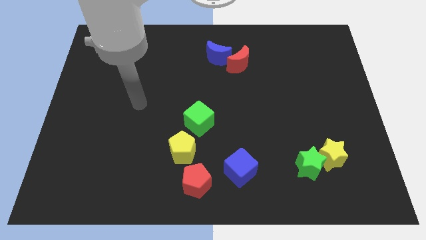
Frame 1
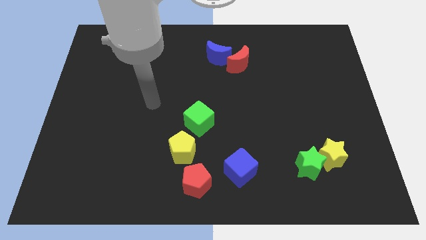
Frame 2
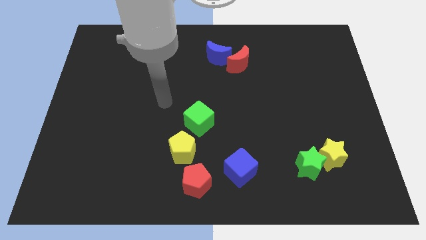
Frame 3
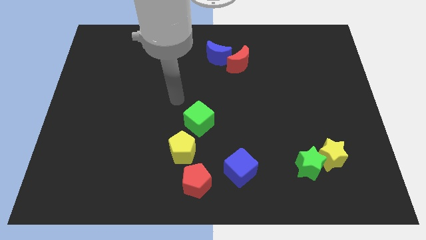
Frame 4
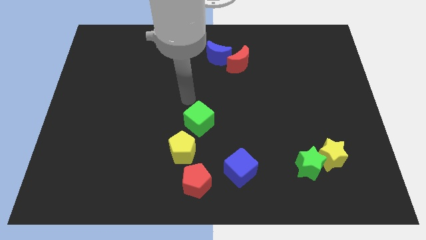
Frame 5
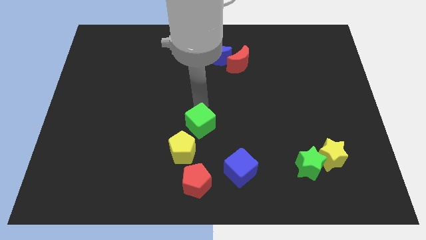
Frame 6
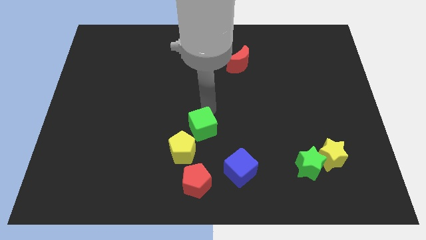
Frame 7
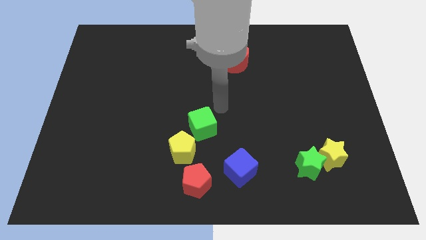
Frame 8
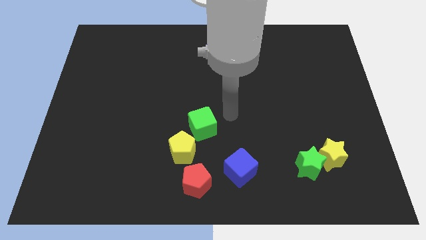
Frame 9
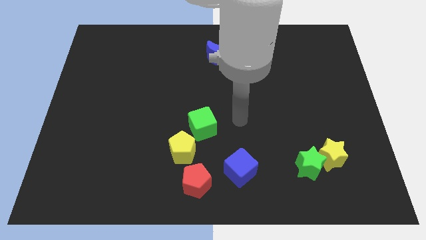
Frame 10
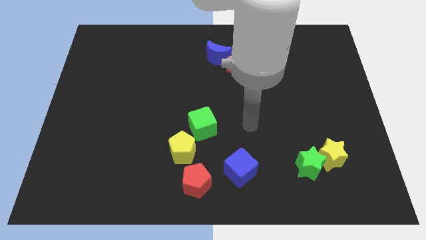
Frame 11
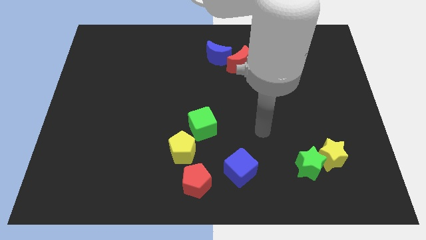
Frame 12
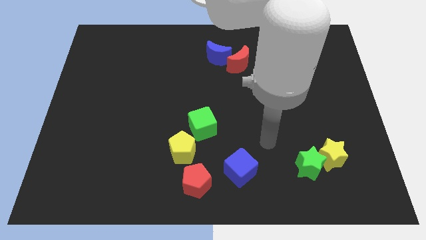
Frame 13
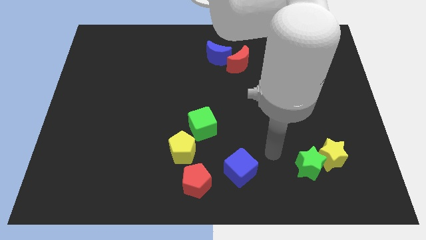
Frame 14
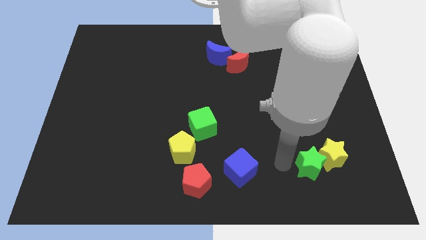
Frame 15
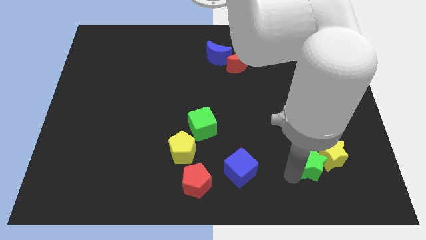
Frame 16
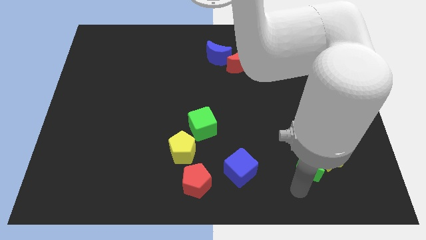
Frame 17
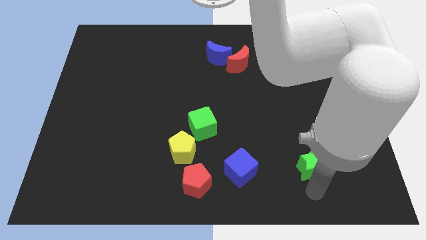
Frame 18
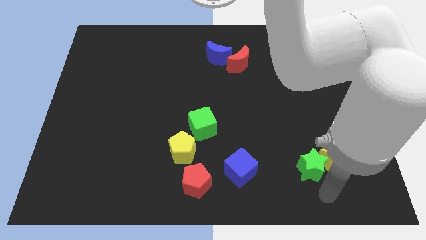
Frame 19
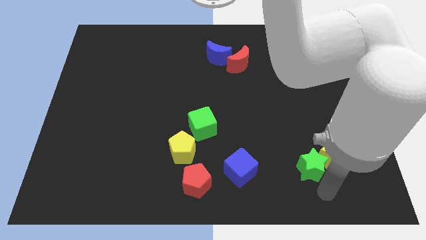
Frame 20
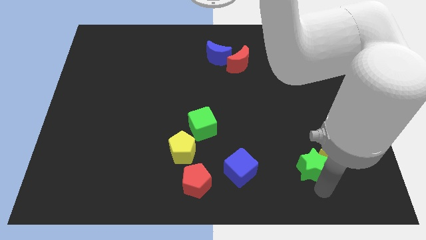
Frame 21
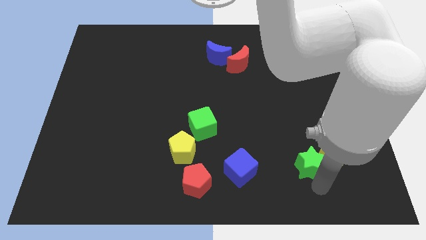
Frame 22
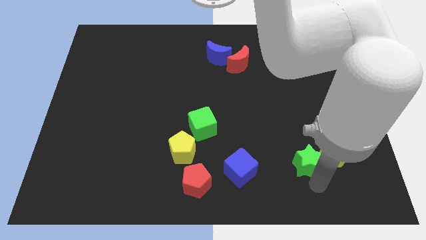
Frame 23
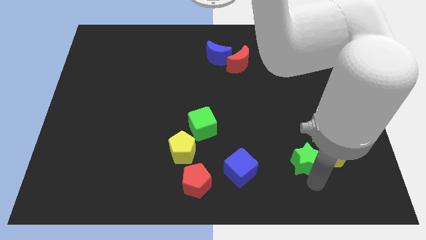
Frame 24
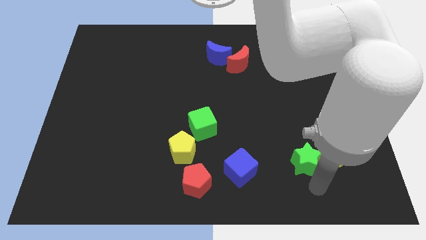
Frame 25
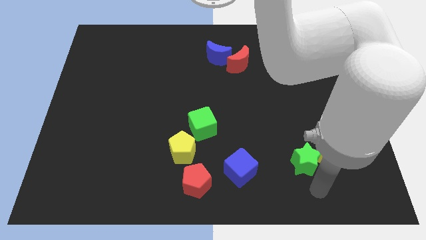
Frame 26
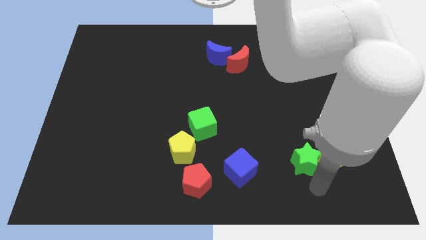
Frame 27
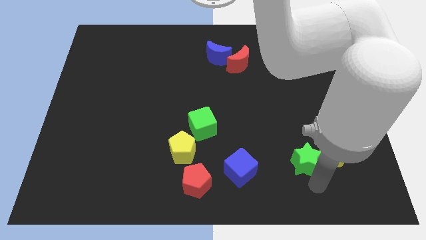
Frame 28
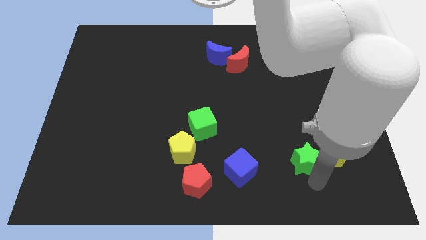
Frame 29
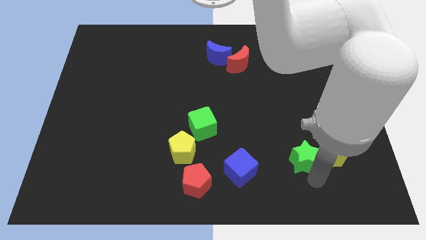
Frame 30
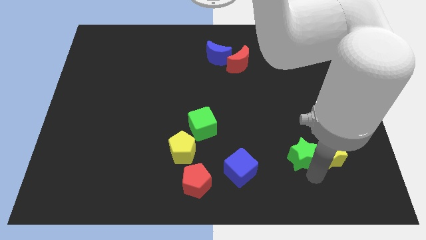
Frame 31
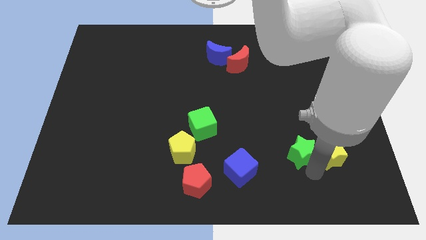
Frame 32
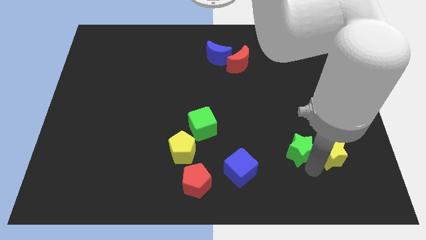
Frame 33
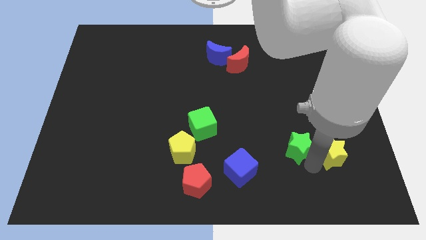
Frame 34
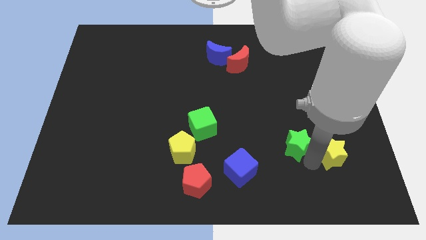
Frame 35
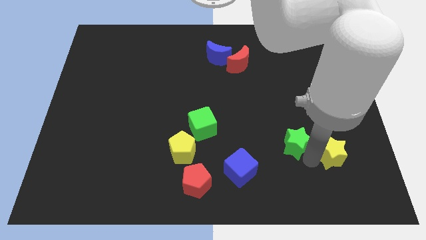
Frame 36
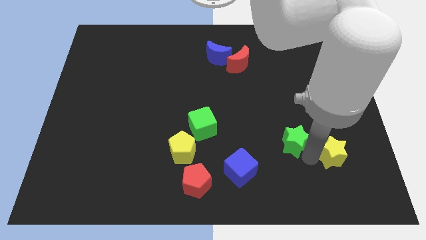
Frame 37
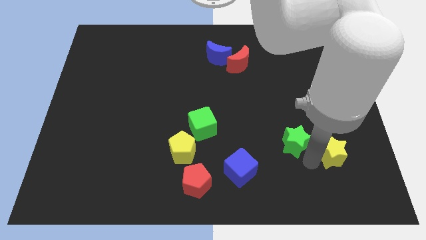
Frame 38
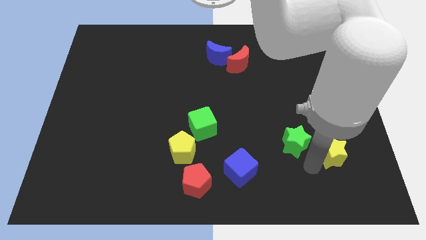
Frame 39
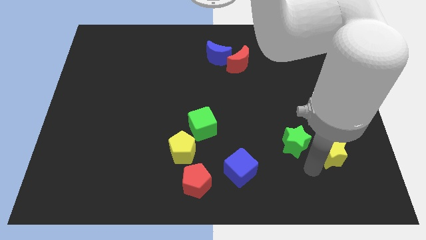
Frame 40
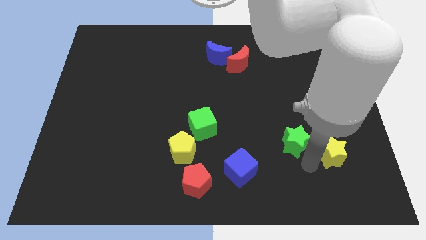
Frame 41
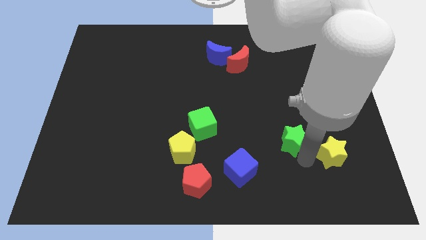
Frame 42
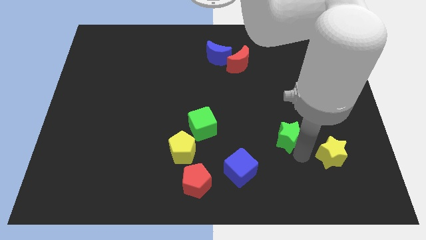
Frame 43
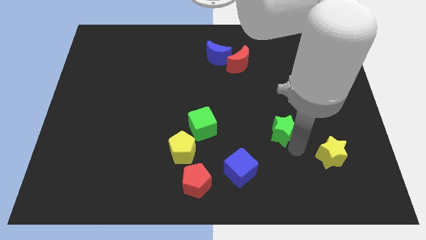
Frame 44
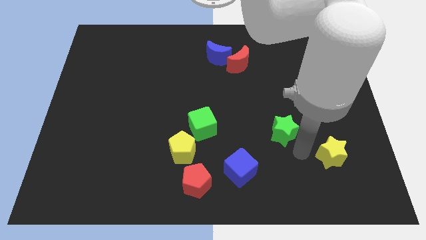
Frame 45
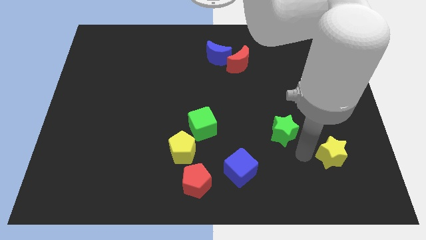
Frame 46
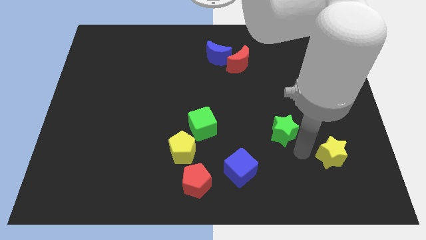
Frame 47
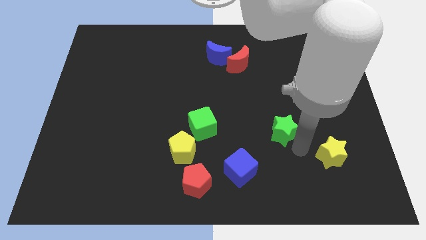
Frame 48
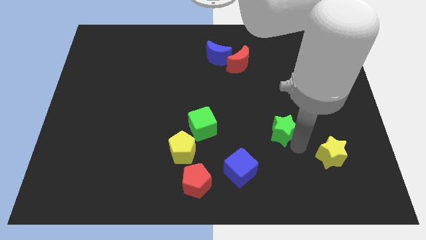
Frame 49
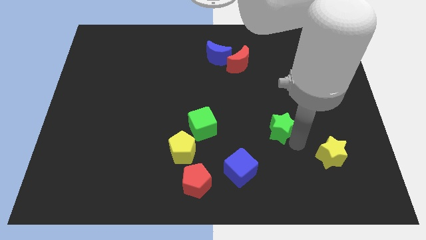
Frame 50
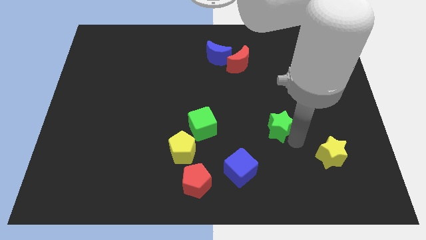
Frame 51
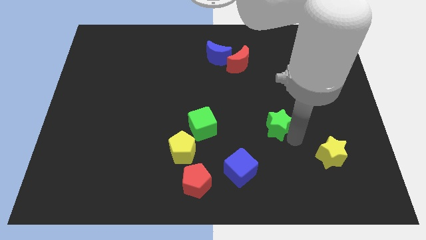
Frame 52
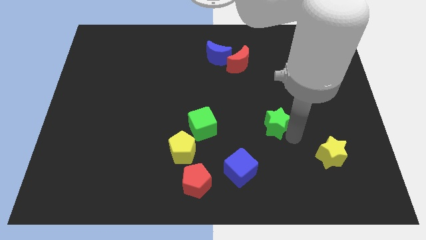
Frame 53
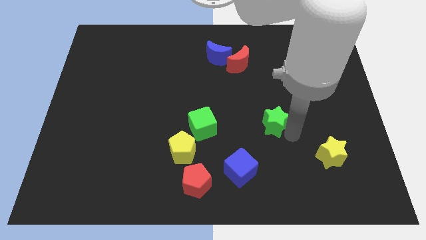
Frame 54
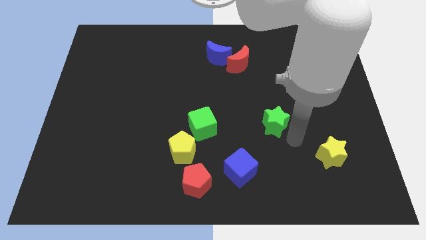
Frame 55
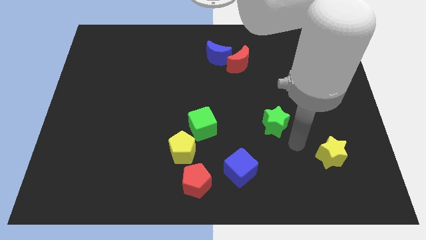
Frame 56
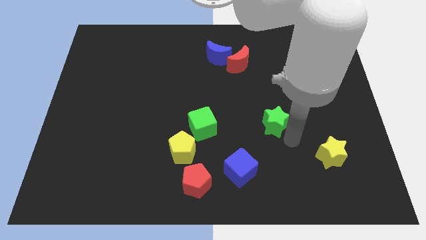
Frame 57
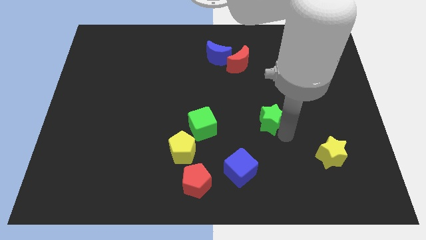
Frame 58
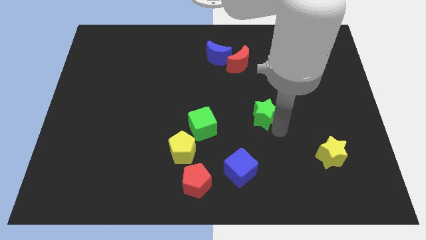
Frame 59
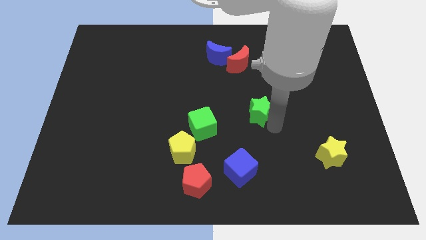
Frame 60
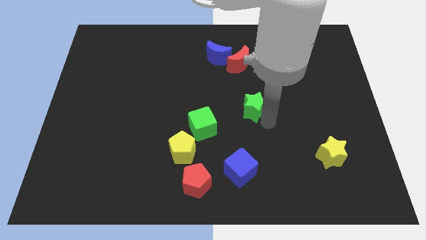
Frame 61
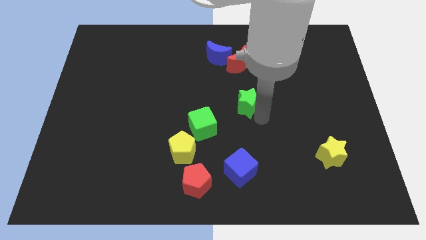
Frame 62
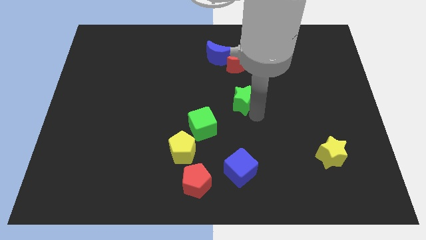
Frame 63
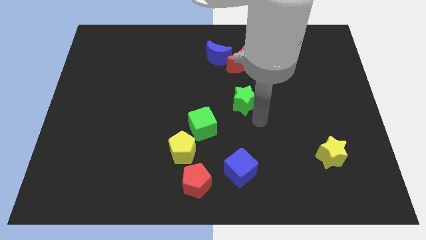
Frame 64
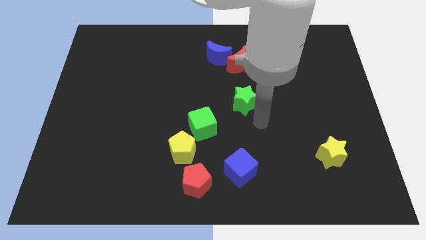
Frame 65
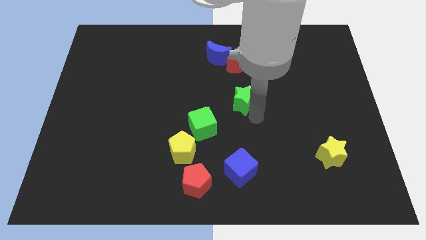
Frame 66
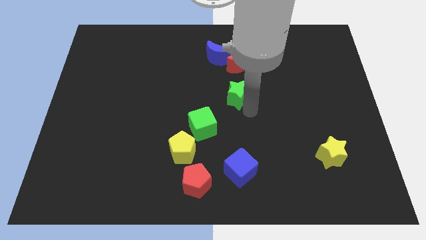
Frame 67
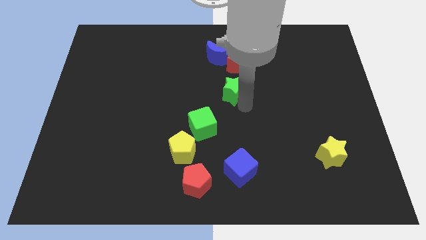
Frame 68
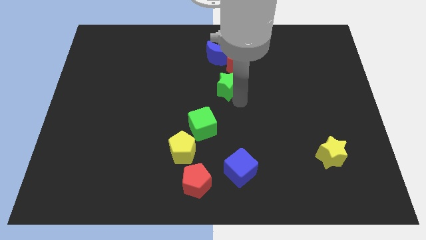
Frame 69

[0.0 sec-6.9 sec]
move the green star diagonally down and to the left of the red moon

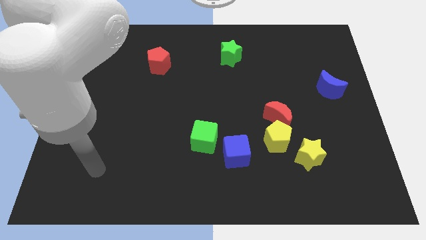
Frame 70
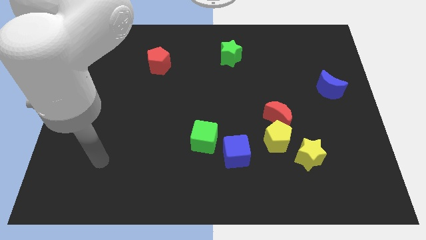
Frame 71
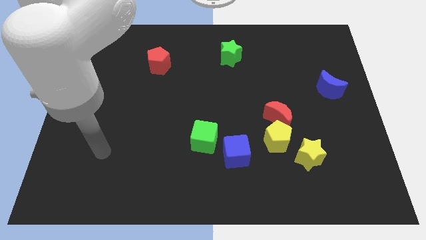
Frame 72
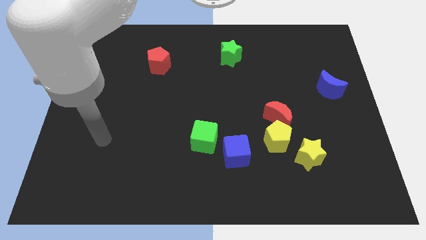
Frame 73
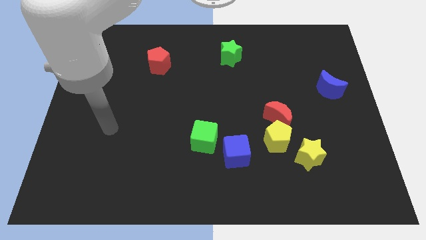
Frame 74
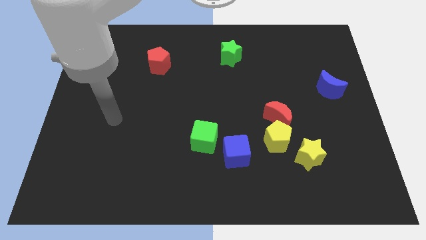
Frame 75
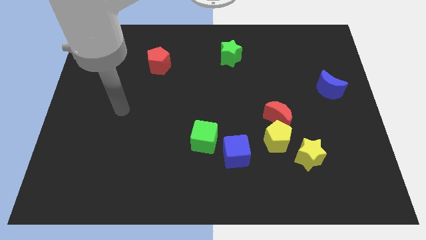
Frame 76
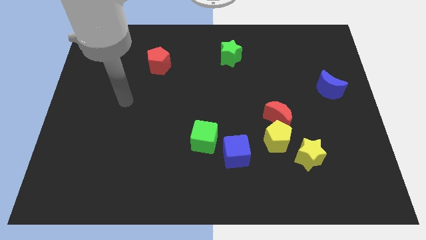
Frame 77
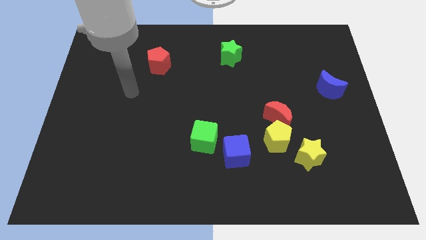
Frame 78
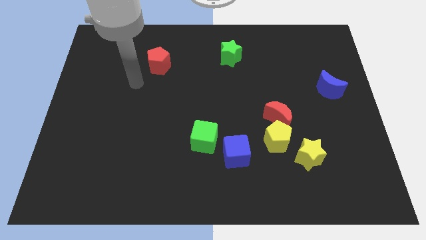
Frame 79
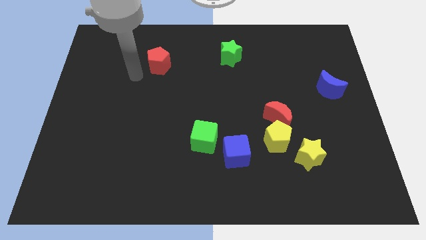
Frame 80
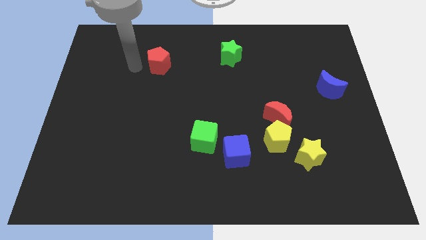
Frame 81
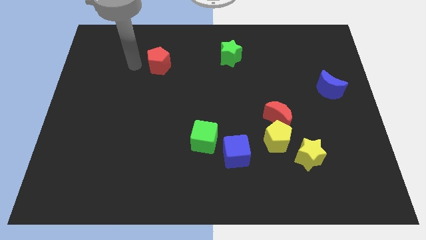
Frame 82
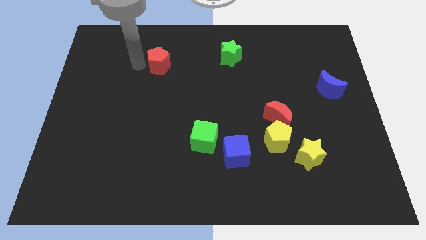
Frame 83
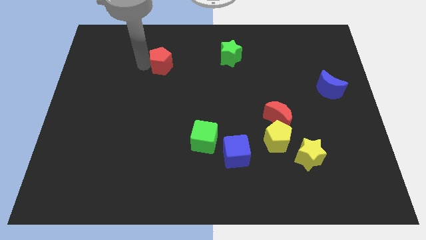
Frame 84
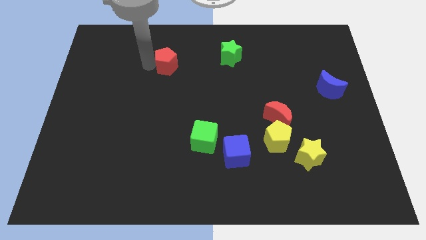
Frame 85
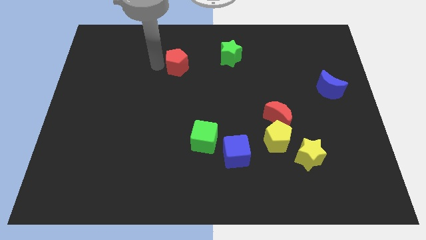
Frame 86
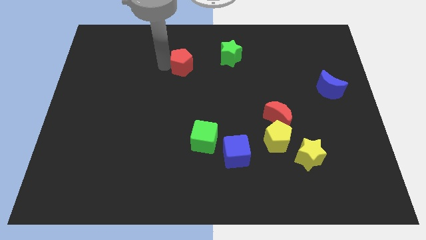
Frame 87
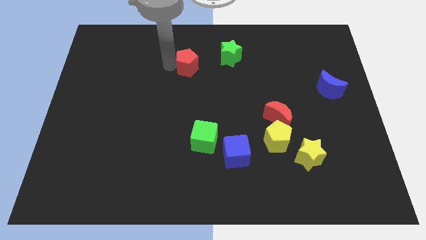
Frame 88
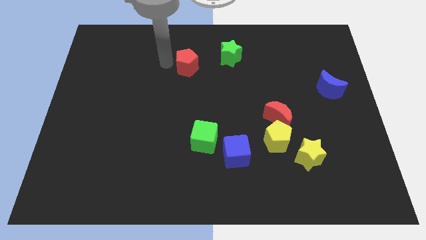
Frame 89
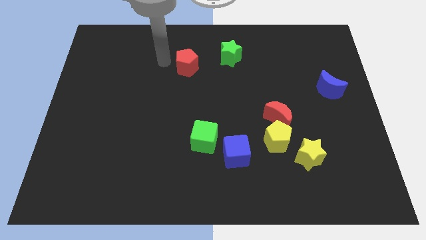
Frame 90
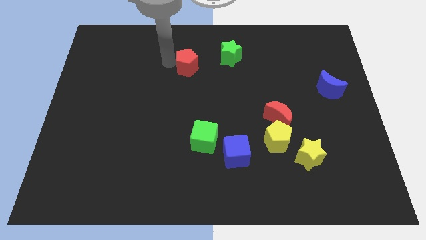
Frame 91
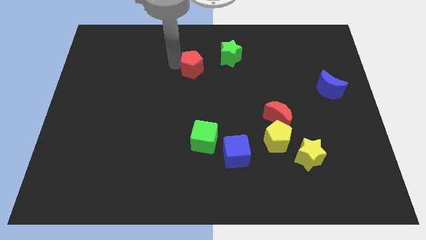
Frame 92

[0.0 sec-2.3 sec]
put the red pentagon to the bottom left side of the green star
